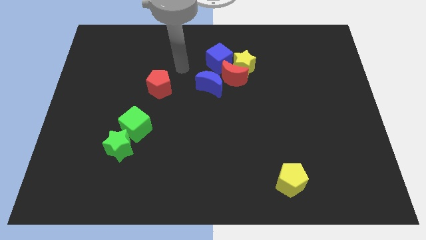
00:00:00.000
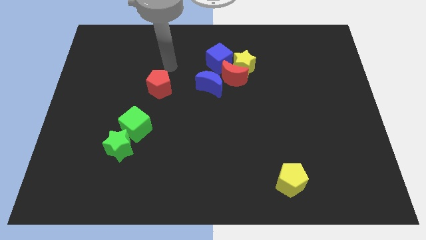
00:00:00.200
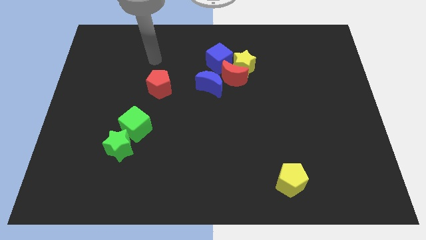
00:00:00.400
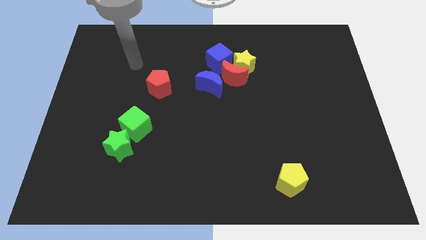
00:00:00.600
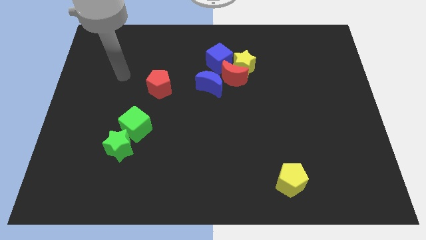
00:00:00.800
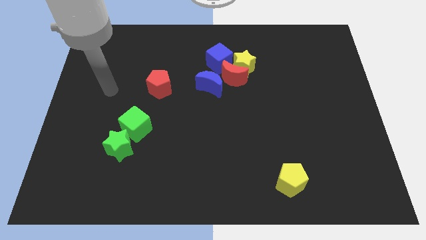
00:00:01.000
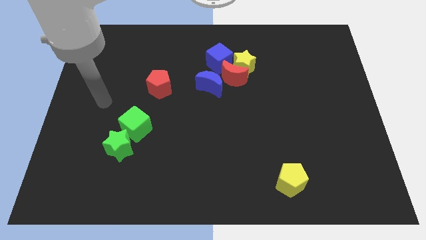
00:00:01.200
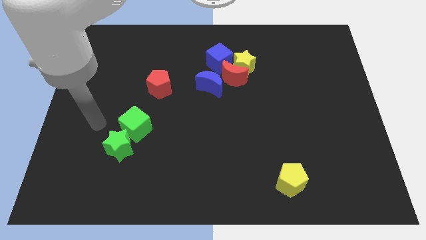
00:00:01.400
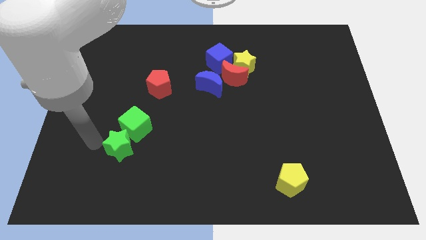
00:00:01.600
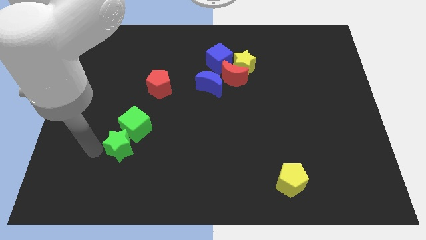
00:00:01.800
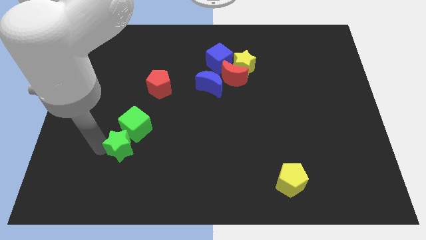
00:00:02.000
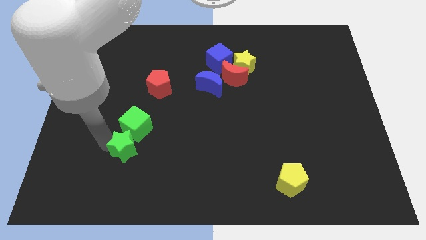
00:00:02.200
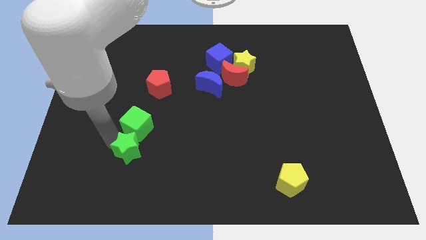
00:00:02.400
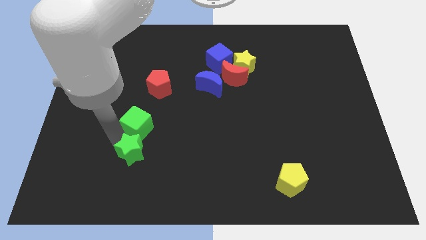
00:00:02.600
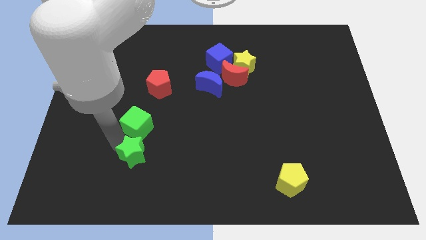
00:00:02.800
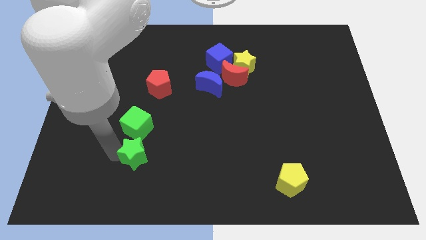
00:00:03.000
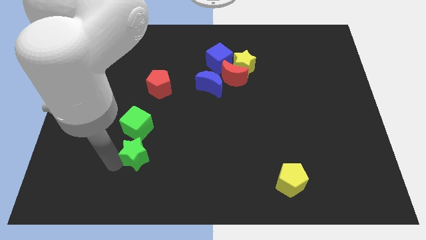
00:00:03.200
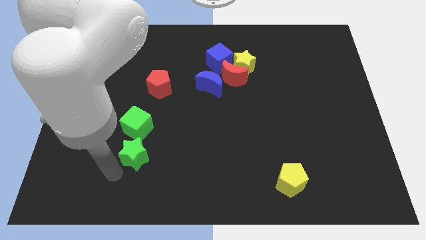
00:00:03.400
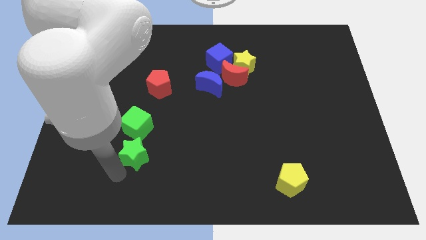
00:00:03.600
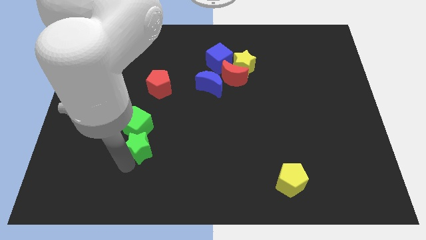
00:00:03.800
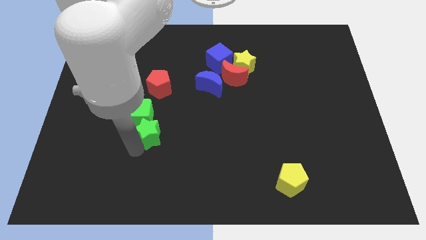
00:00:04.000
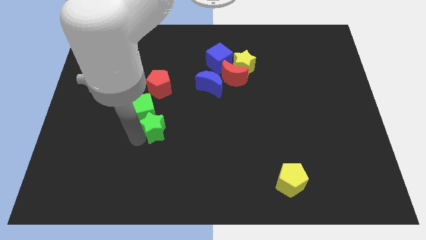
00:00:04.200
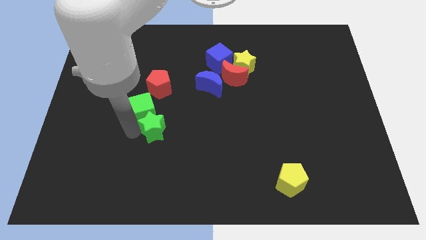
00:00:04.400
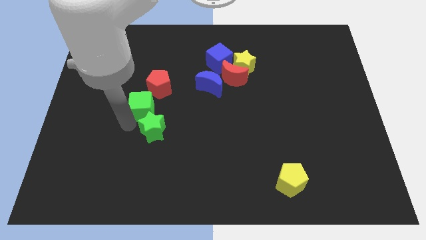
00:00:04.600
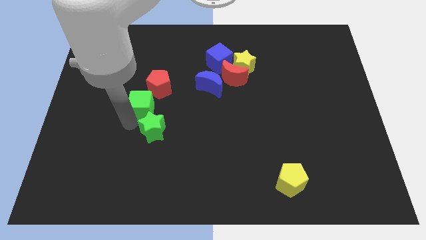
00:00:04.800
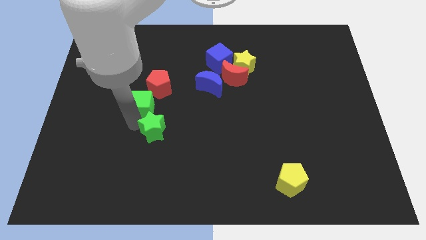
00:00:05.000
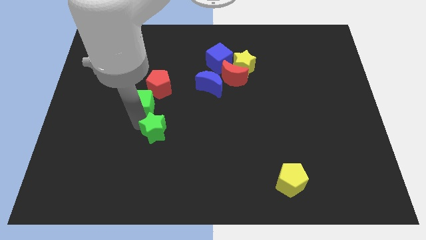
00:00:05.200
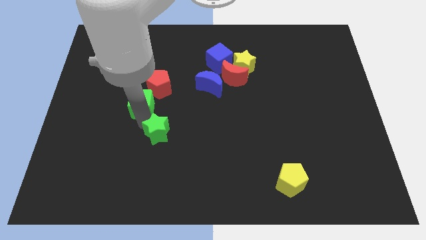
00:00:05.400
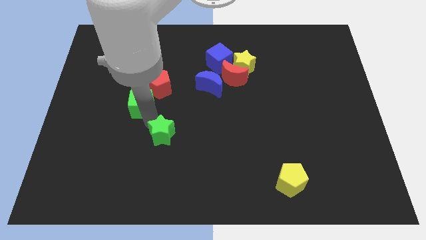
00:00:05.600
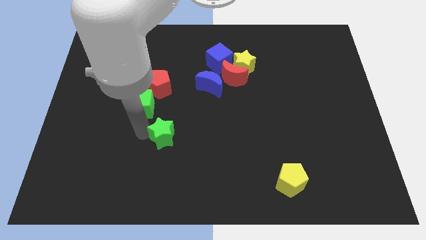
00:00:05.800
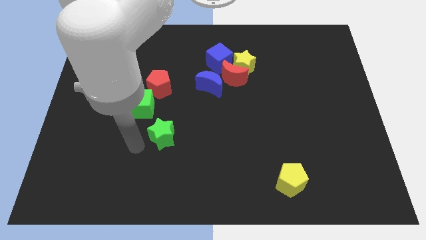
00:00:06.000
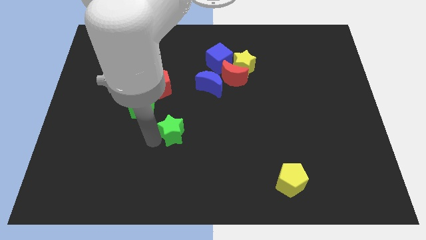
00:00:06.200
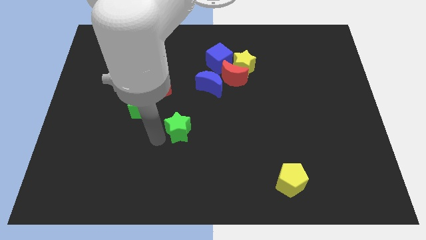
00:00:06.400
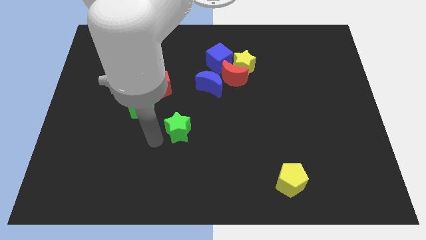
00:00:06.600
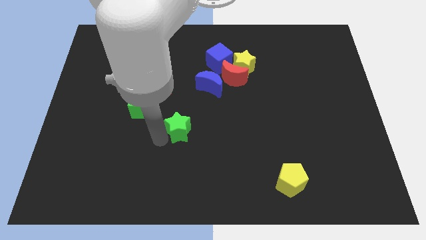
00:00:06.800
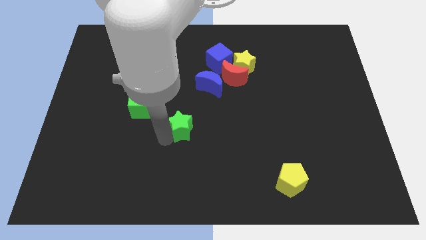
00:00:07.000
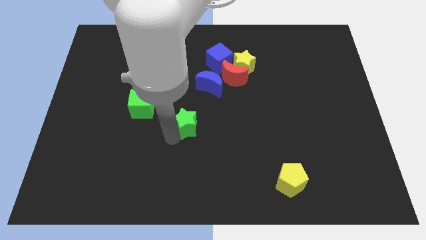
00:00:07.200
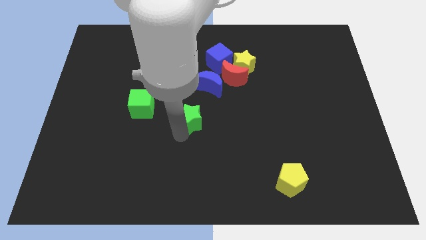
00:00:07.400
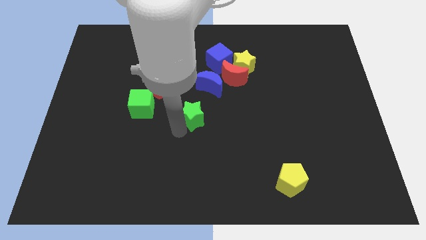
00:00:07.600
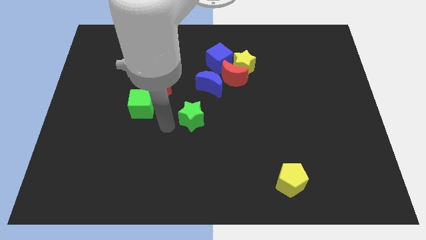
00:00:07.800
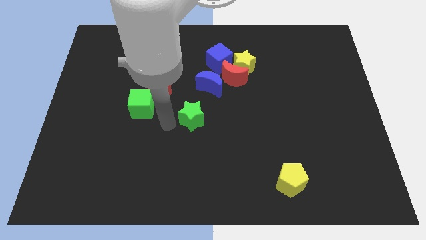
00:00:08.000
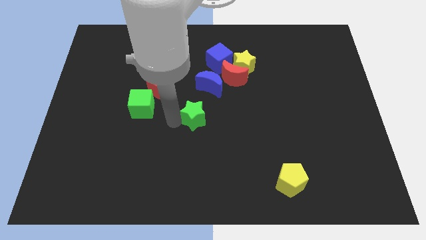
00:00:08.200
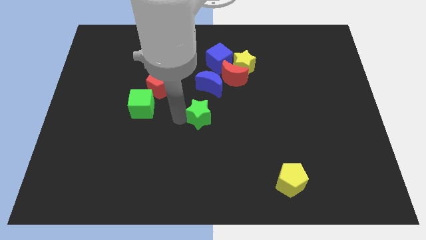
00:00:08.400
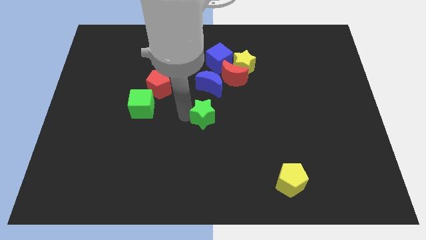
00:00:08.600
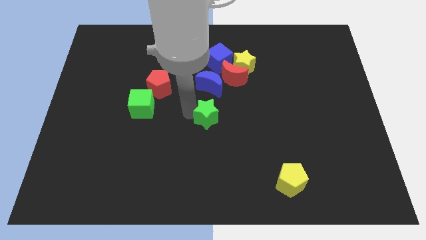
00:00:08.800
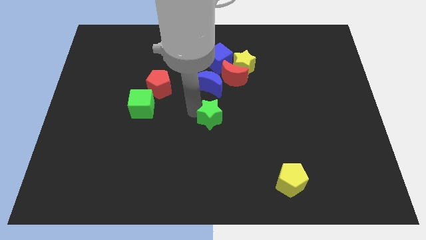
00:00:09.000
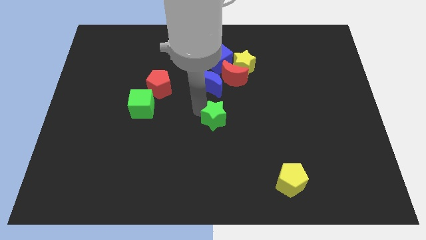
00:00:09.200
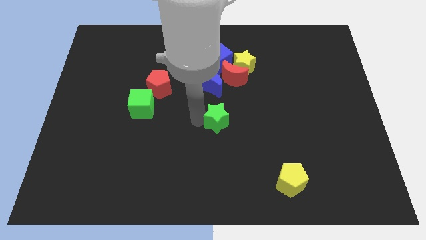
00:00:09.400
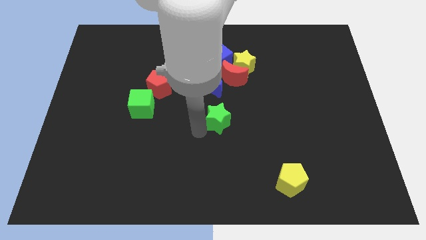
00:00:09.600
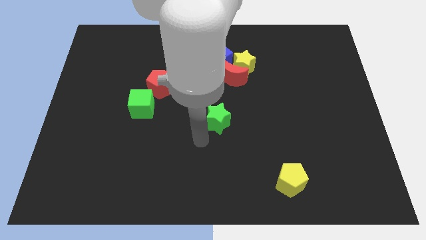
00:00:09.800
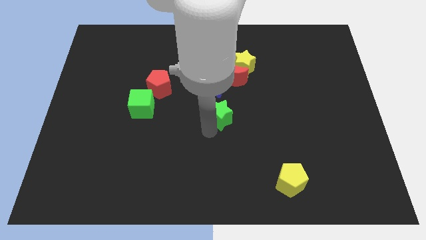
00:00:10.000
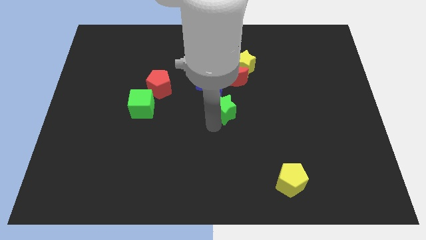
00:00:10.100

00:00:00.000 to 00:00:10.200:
slide the green star to the bottom right of the blue moon

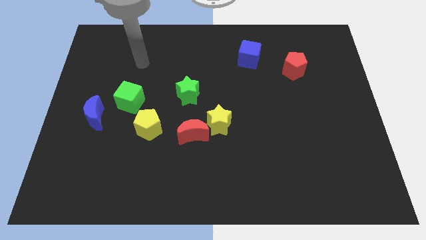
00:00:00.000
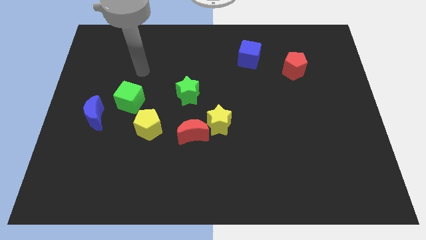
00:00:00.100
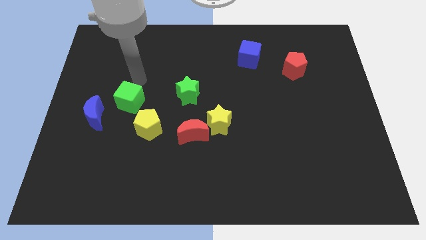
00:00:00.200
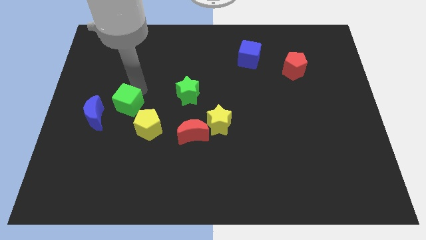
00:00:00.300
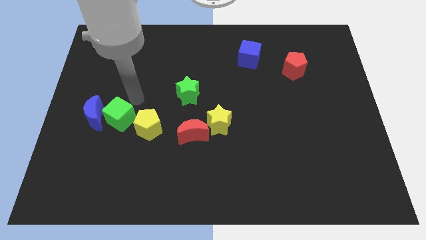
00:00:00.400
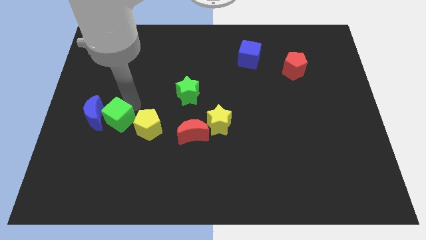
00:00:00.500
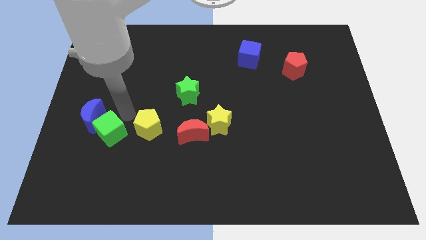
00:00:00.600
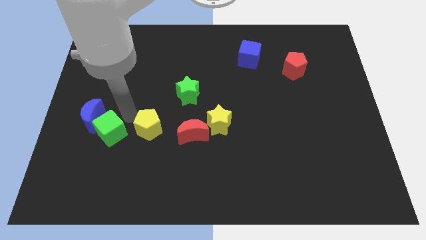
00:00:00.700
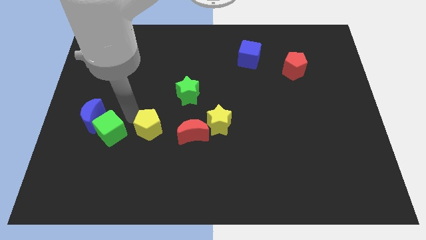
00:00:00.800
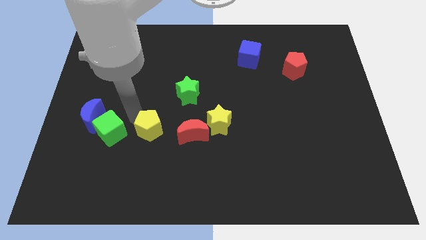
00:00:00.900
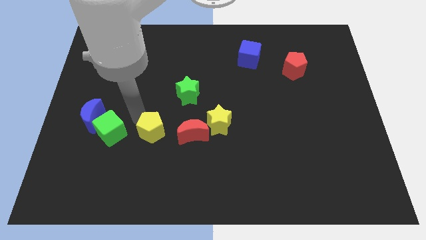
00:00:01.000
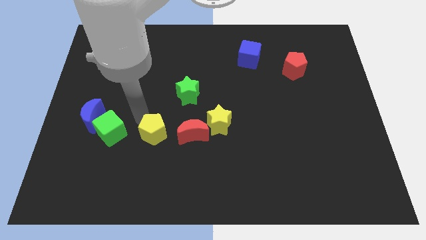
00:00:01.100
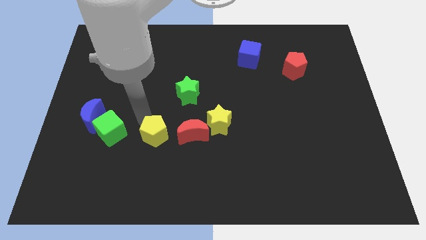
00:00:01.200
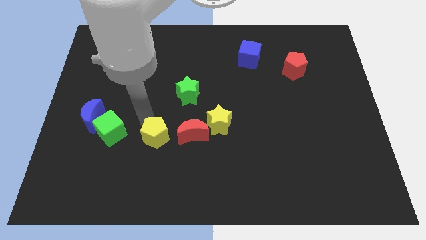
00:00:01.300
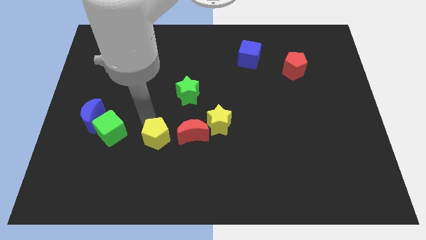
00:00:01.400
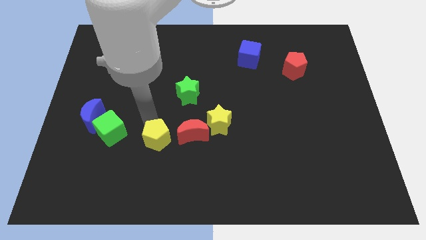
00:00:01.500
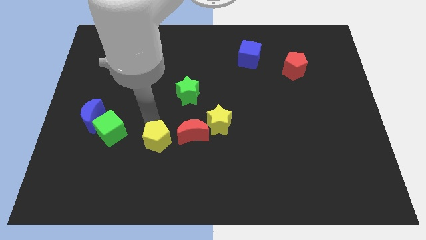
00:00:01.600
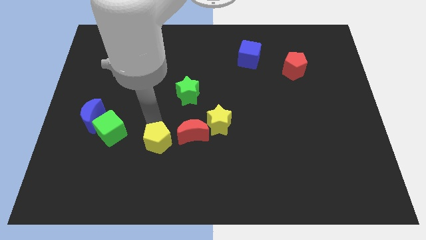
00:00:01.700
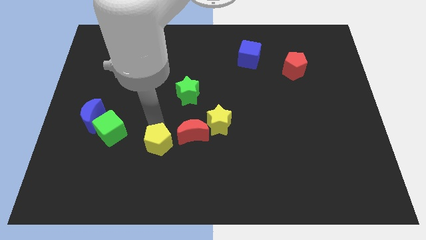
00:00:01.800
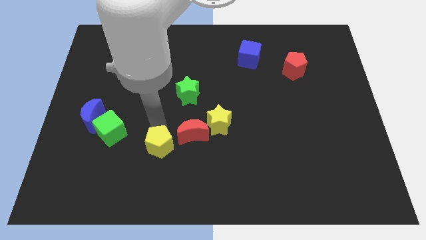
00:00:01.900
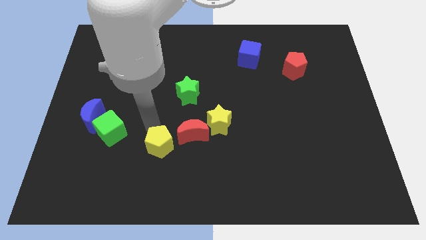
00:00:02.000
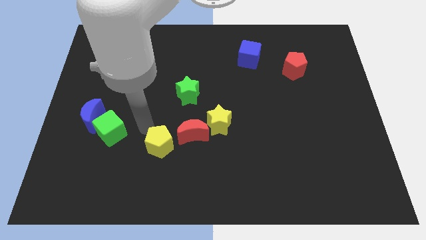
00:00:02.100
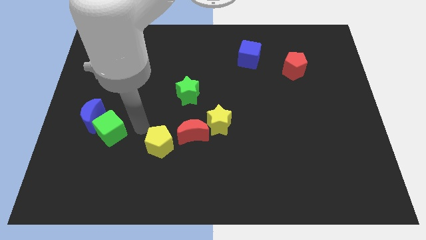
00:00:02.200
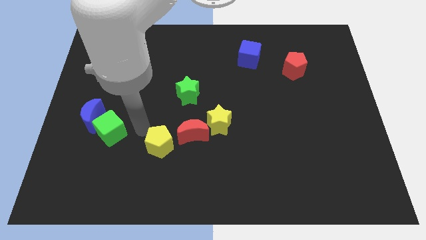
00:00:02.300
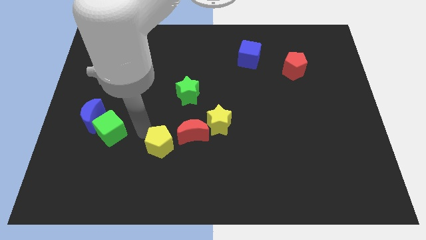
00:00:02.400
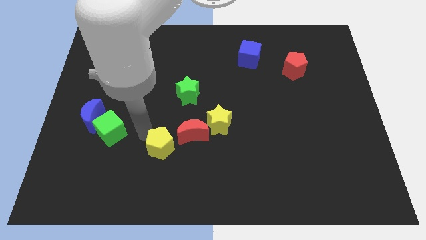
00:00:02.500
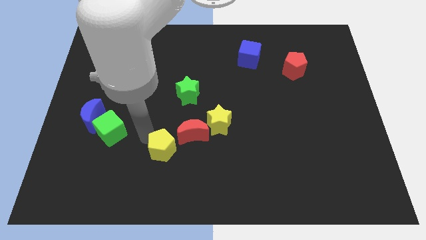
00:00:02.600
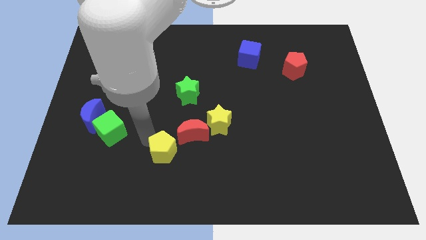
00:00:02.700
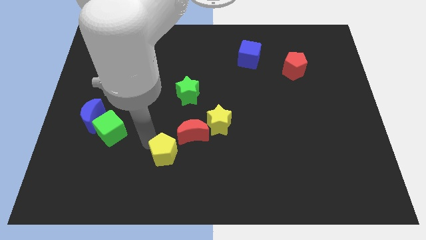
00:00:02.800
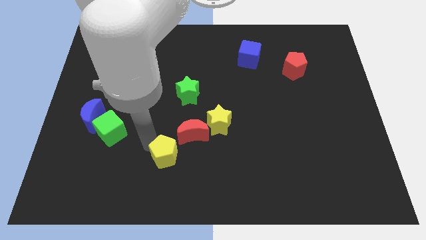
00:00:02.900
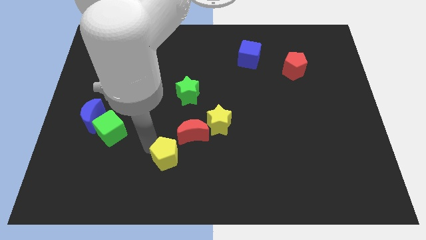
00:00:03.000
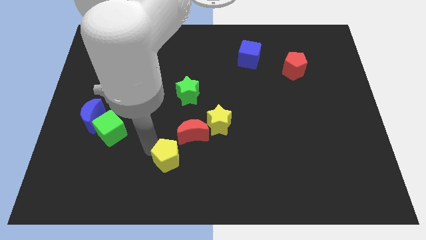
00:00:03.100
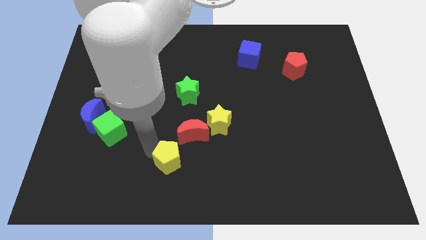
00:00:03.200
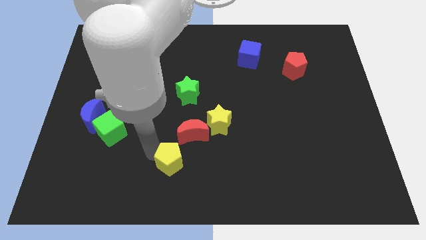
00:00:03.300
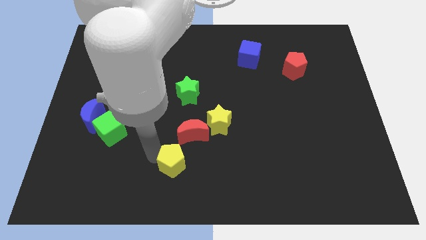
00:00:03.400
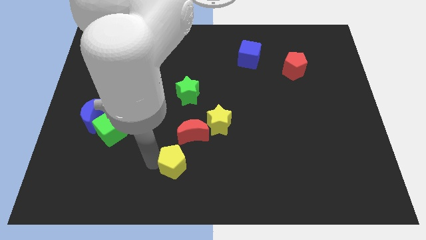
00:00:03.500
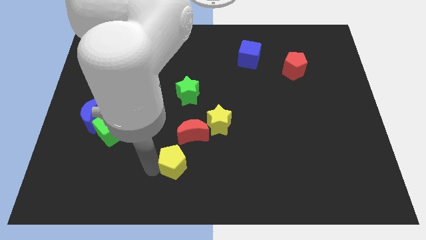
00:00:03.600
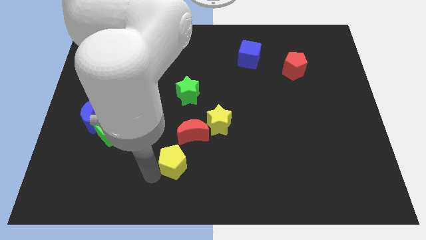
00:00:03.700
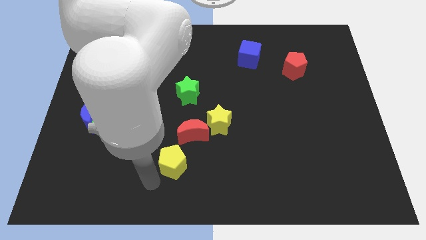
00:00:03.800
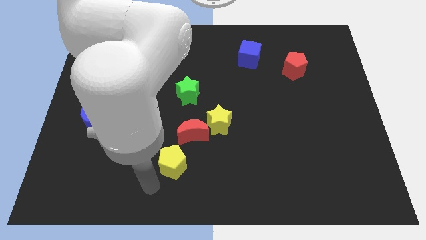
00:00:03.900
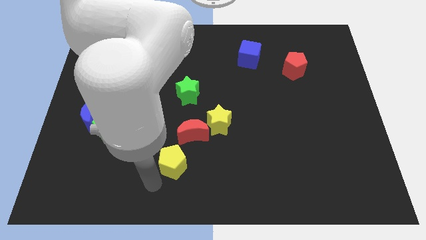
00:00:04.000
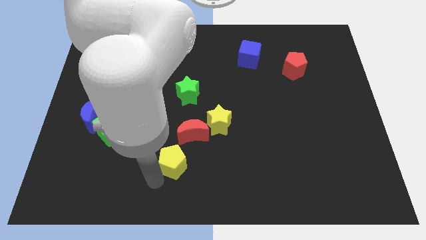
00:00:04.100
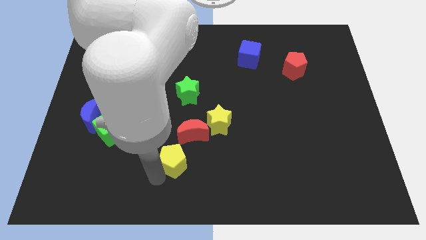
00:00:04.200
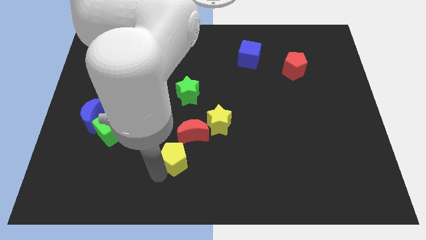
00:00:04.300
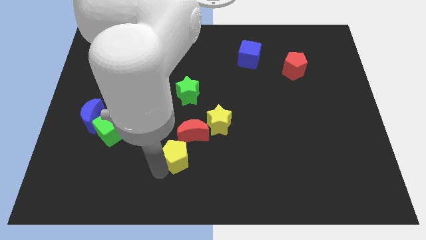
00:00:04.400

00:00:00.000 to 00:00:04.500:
push the yellow pentagon to the bottom left side of the yellow star
